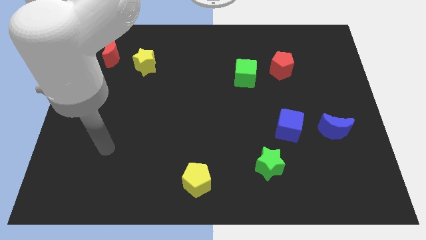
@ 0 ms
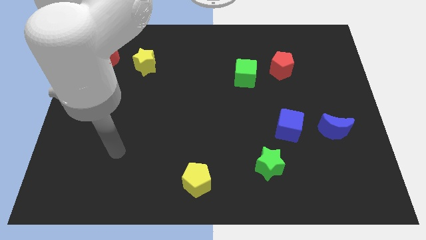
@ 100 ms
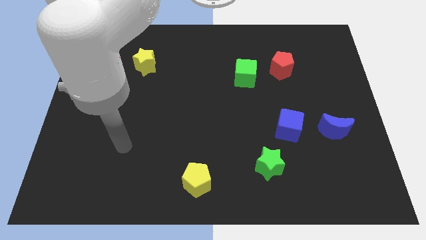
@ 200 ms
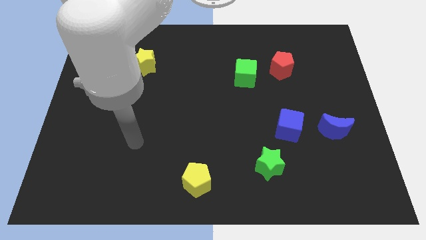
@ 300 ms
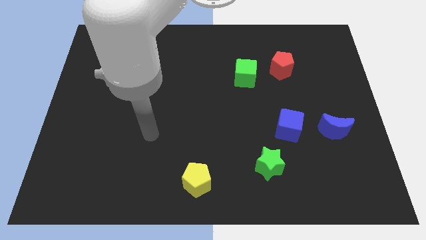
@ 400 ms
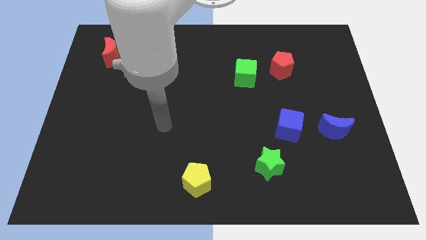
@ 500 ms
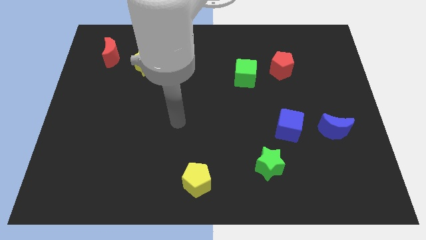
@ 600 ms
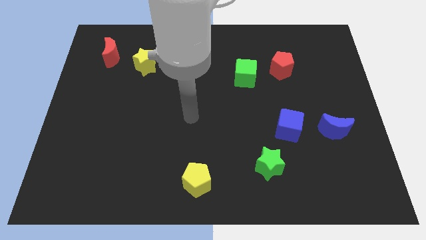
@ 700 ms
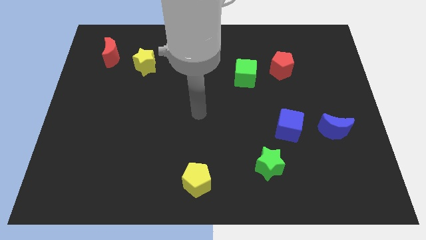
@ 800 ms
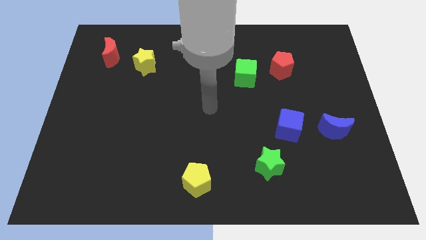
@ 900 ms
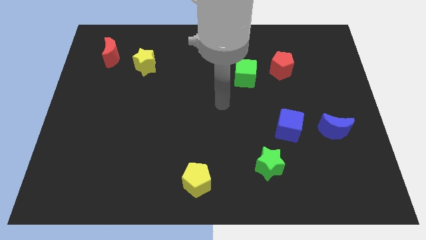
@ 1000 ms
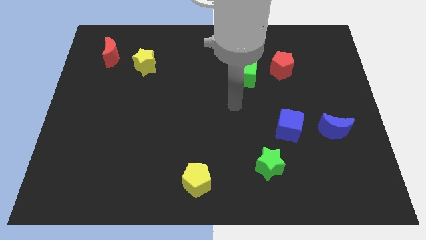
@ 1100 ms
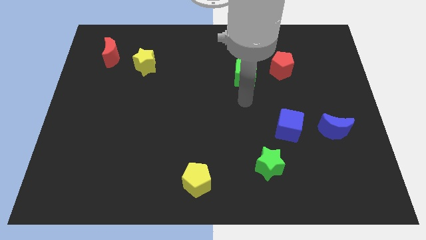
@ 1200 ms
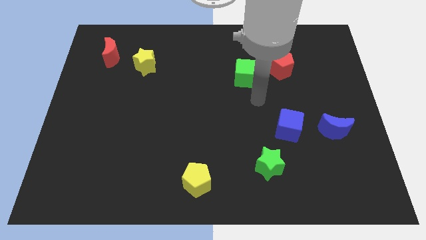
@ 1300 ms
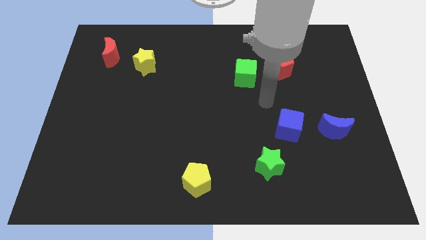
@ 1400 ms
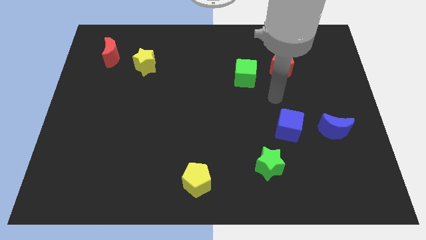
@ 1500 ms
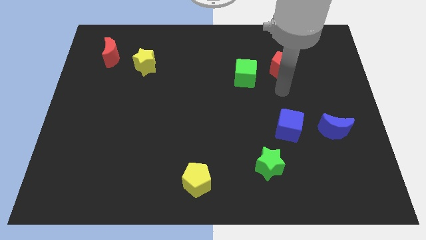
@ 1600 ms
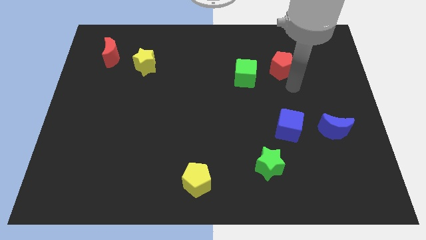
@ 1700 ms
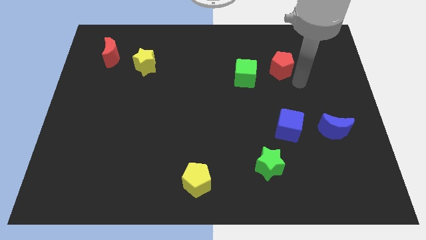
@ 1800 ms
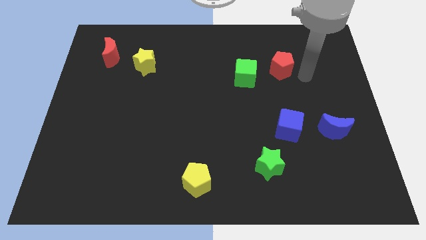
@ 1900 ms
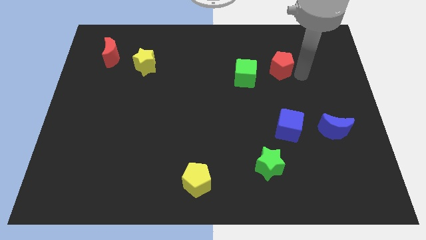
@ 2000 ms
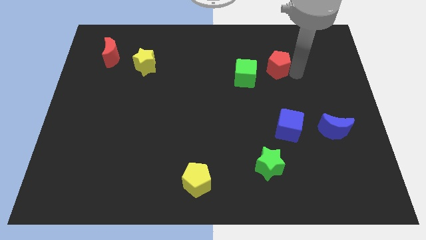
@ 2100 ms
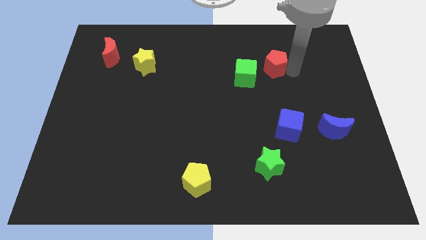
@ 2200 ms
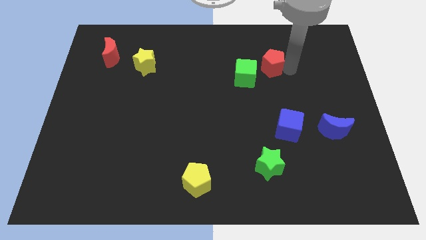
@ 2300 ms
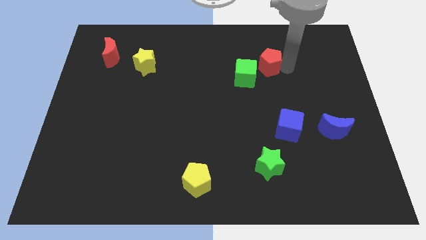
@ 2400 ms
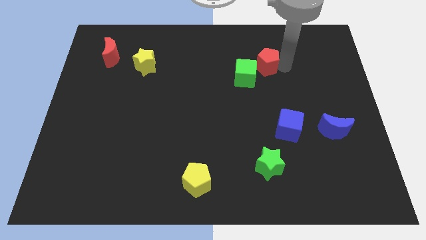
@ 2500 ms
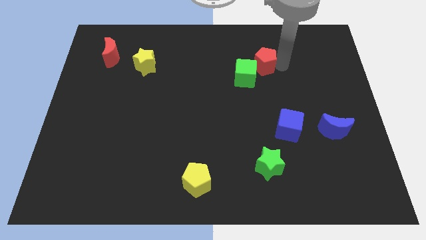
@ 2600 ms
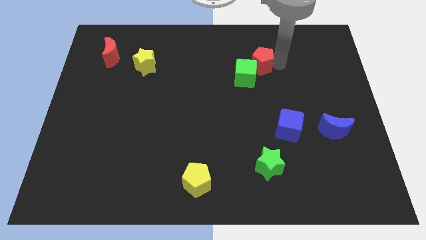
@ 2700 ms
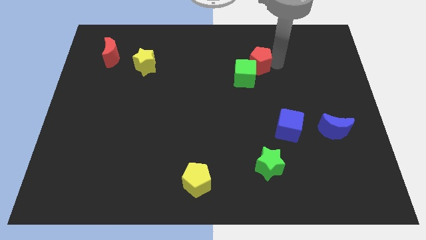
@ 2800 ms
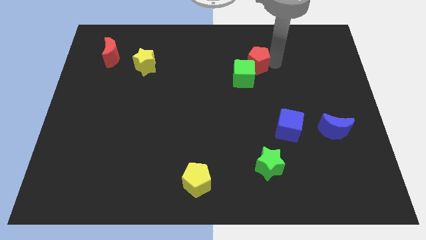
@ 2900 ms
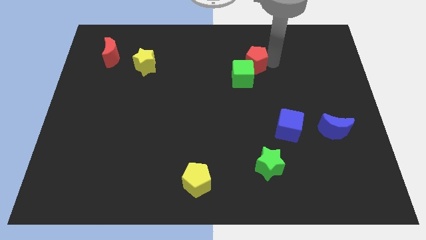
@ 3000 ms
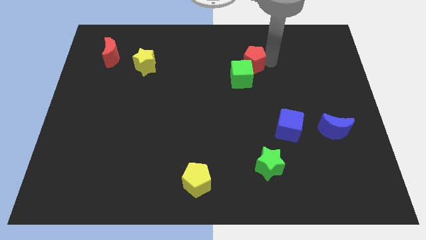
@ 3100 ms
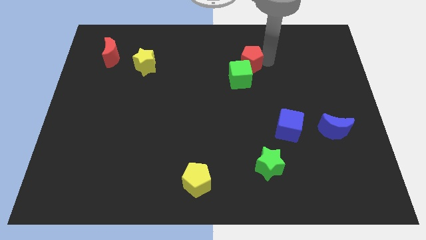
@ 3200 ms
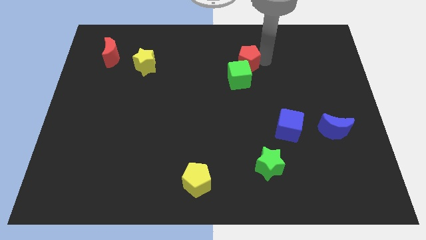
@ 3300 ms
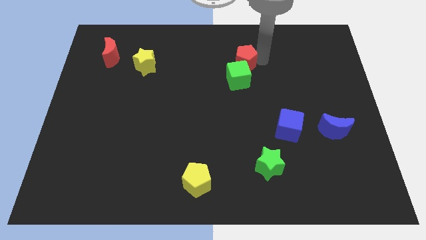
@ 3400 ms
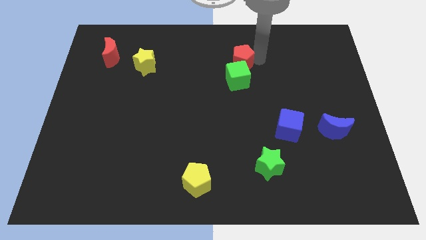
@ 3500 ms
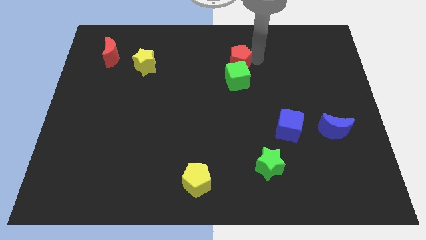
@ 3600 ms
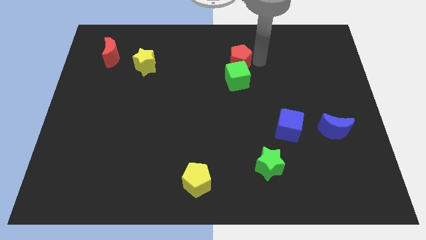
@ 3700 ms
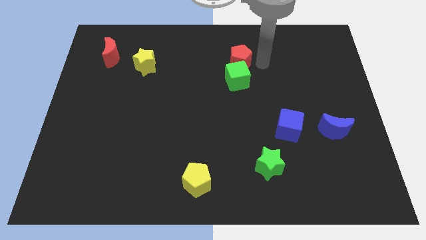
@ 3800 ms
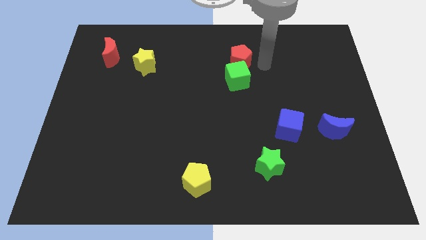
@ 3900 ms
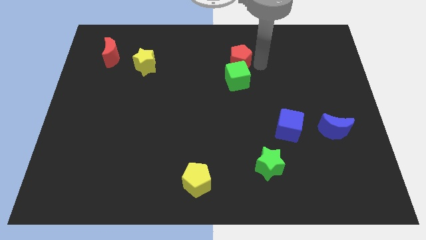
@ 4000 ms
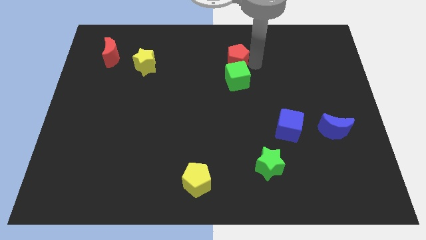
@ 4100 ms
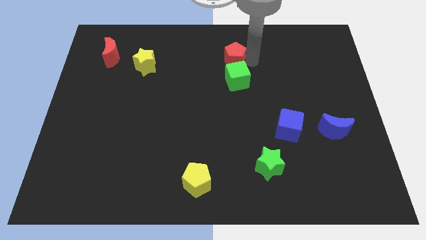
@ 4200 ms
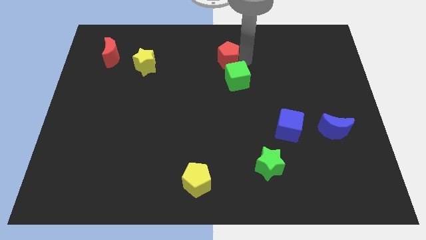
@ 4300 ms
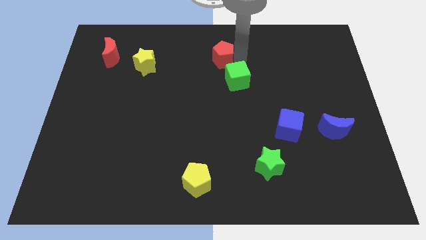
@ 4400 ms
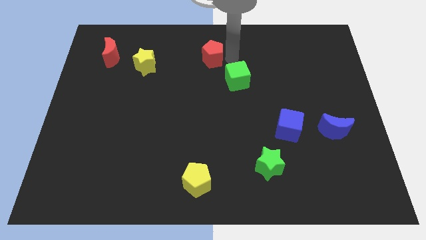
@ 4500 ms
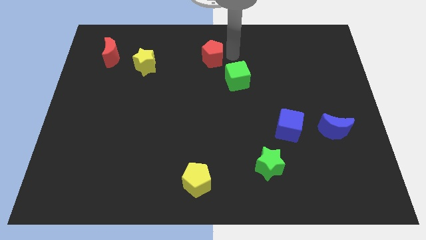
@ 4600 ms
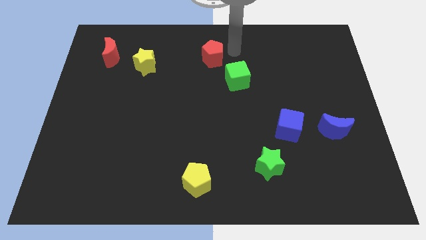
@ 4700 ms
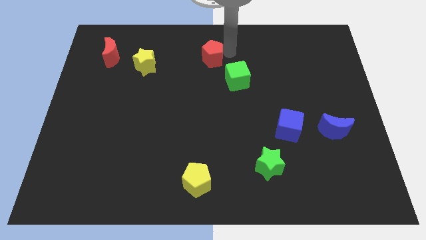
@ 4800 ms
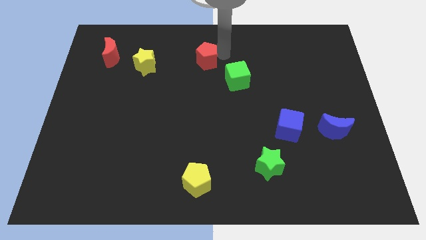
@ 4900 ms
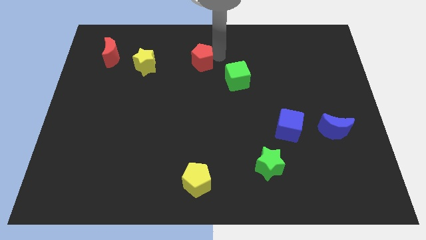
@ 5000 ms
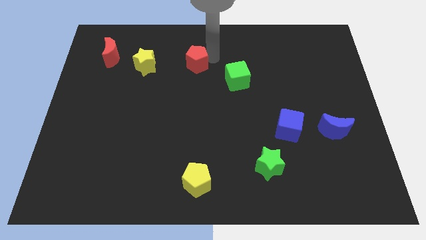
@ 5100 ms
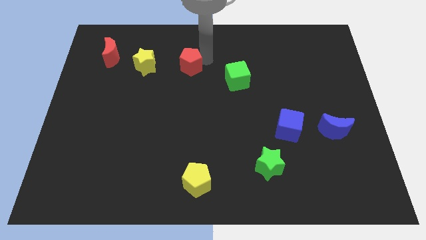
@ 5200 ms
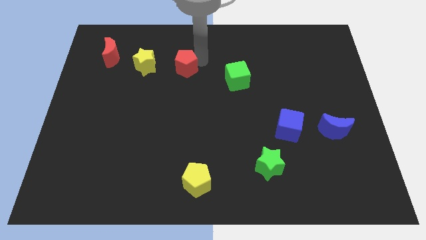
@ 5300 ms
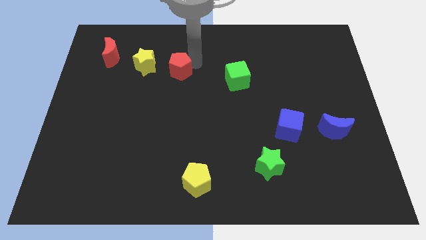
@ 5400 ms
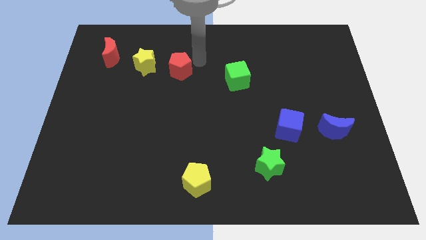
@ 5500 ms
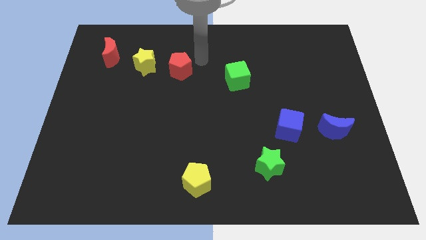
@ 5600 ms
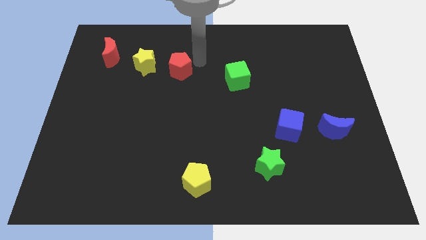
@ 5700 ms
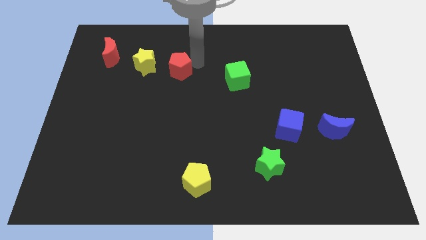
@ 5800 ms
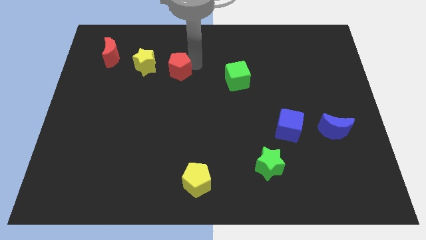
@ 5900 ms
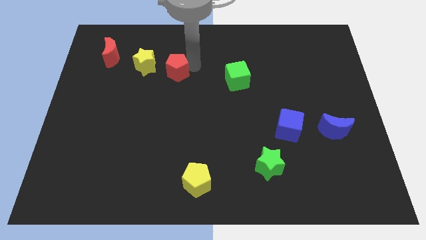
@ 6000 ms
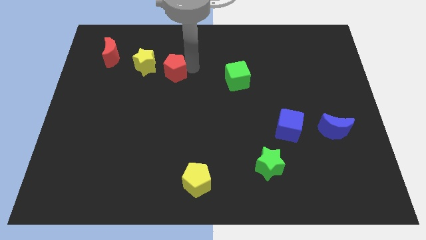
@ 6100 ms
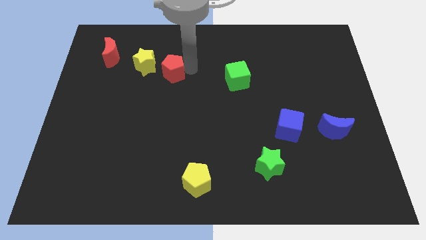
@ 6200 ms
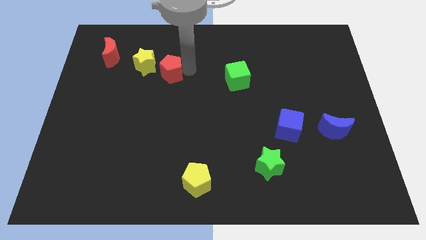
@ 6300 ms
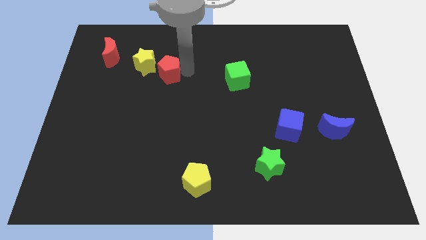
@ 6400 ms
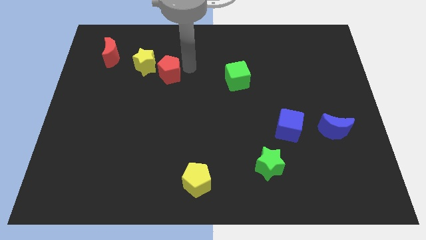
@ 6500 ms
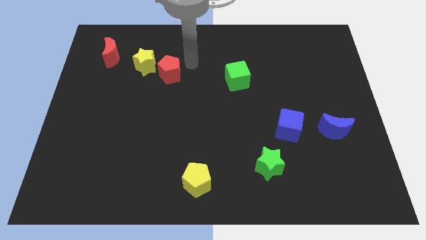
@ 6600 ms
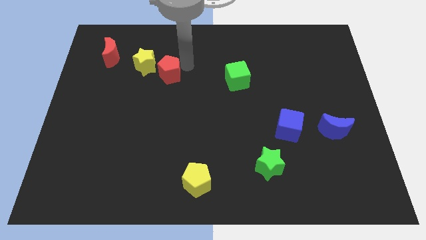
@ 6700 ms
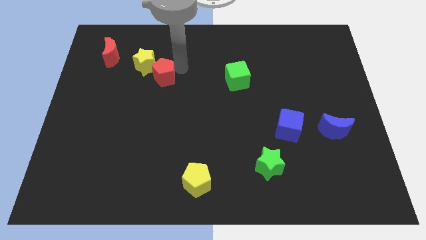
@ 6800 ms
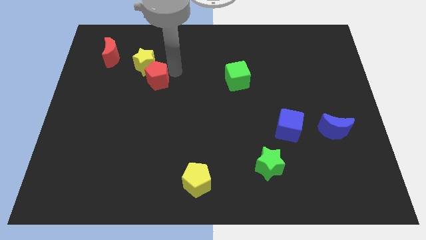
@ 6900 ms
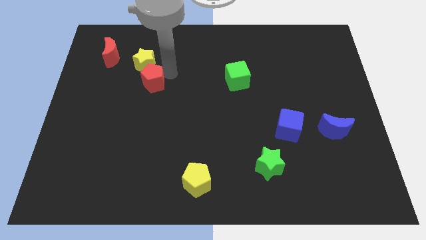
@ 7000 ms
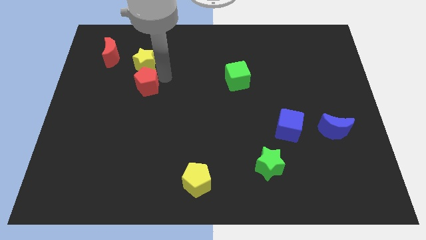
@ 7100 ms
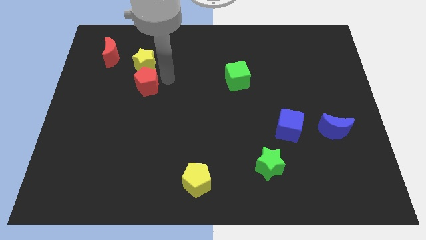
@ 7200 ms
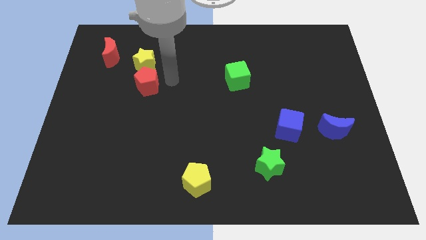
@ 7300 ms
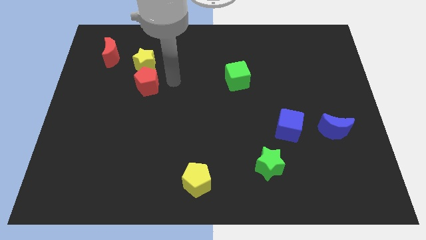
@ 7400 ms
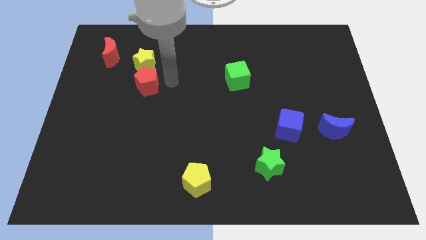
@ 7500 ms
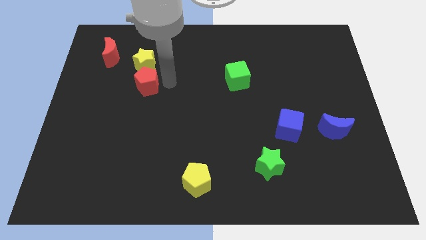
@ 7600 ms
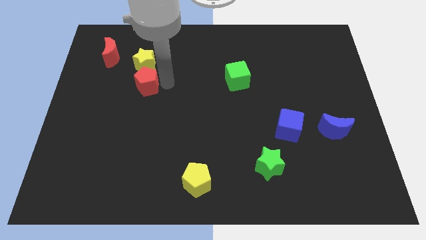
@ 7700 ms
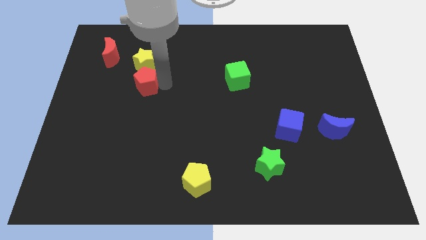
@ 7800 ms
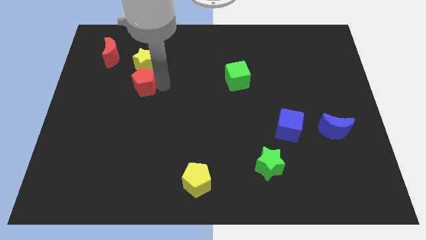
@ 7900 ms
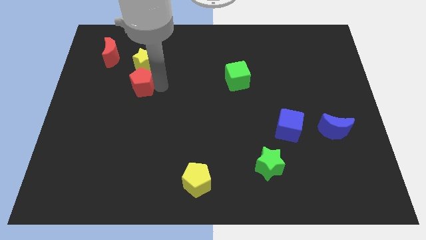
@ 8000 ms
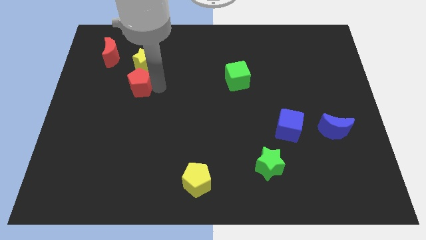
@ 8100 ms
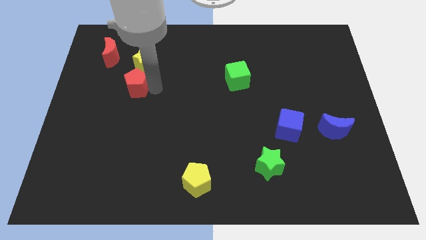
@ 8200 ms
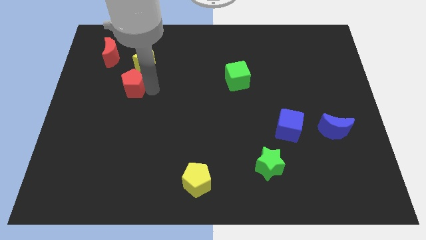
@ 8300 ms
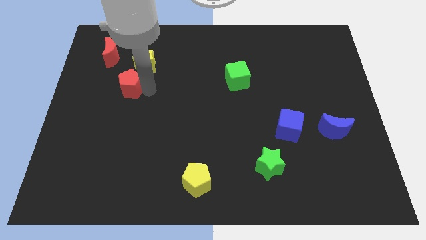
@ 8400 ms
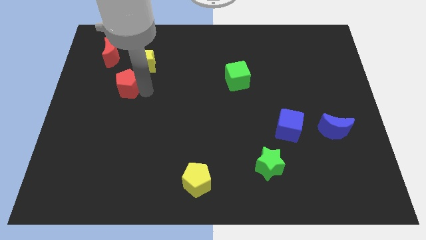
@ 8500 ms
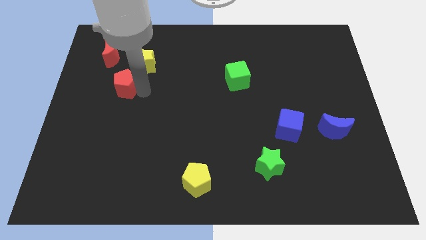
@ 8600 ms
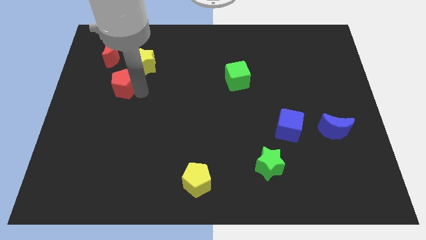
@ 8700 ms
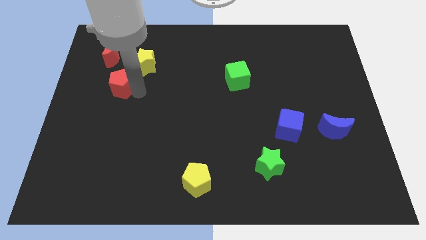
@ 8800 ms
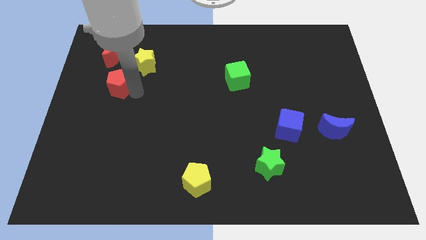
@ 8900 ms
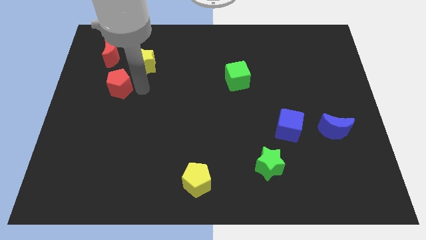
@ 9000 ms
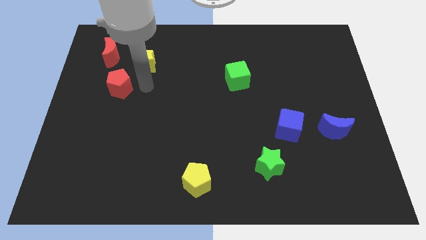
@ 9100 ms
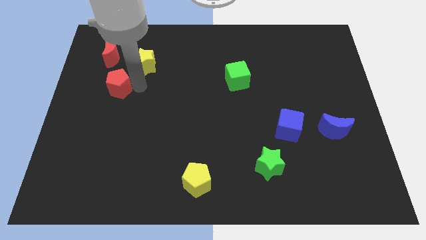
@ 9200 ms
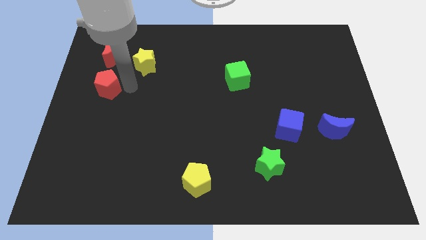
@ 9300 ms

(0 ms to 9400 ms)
push the red pentagon to the left side of the board
